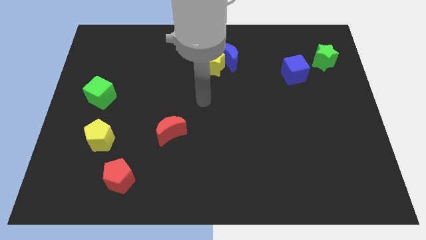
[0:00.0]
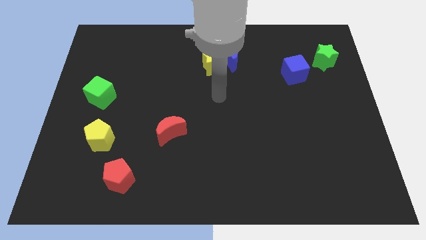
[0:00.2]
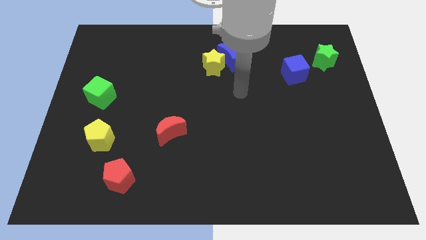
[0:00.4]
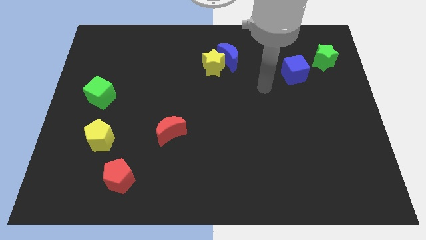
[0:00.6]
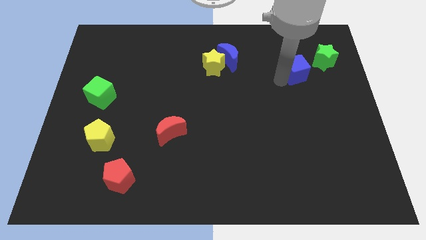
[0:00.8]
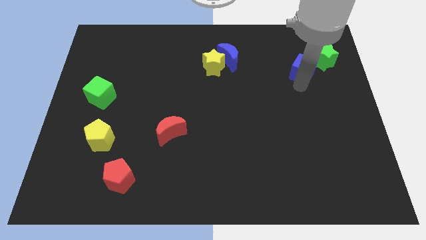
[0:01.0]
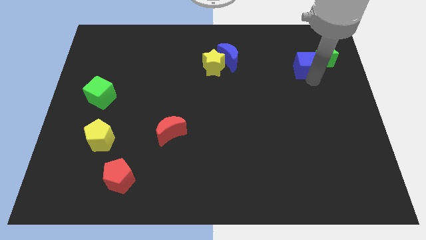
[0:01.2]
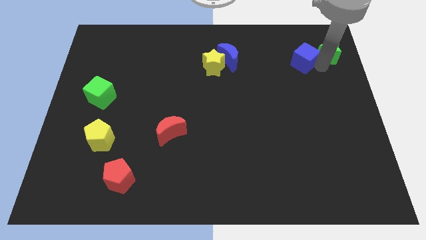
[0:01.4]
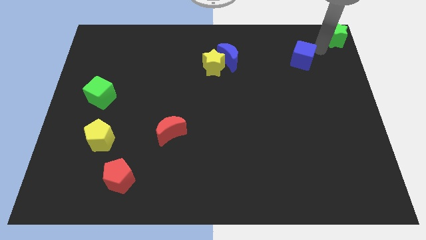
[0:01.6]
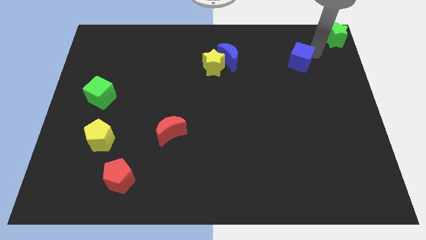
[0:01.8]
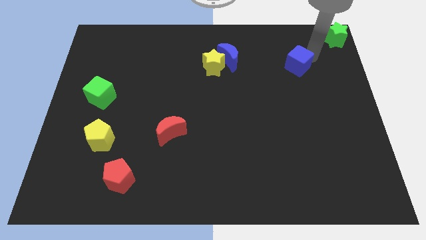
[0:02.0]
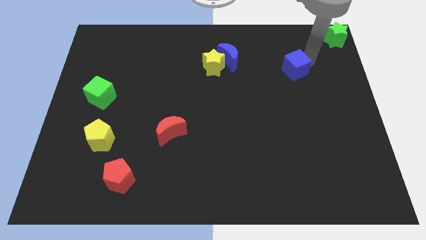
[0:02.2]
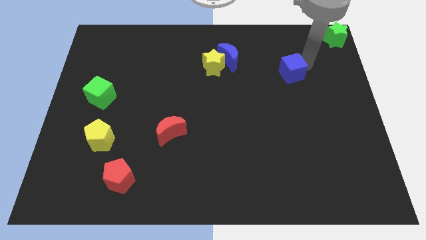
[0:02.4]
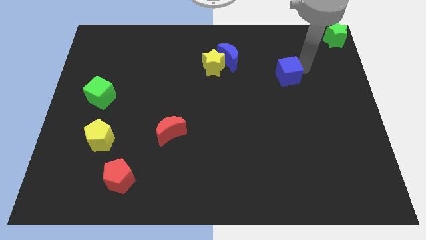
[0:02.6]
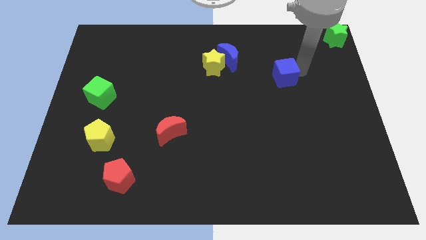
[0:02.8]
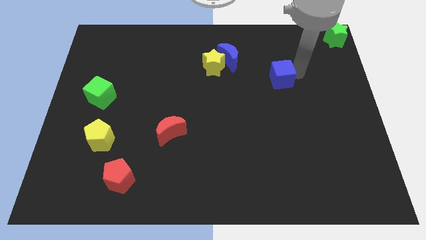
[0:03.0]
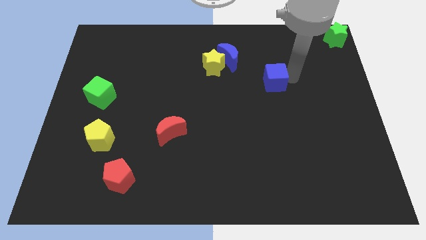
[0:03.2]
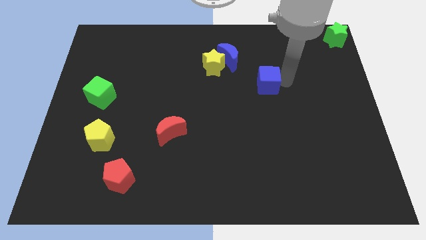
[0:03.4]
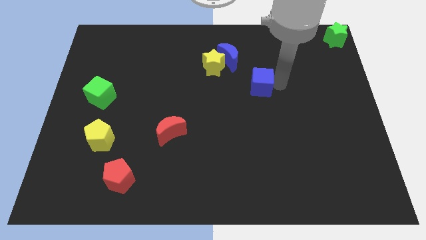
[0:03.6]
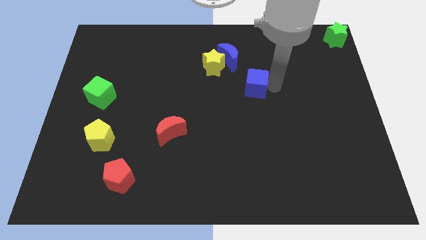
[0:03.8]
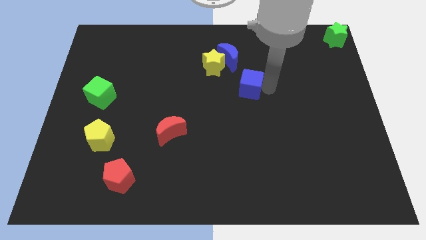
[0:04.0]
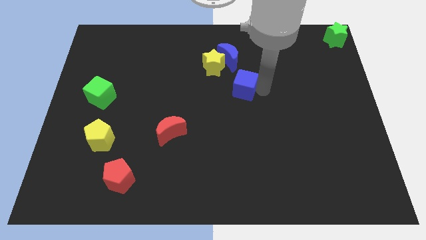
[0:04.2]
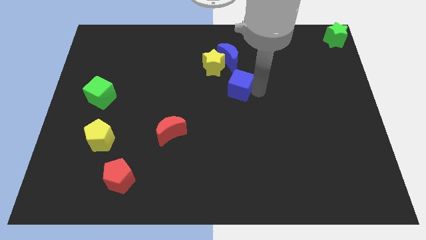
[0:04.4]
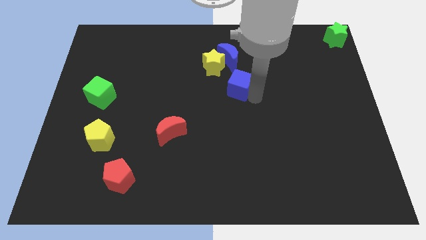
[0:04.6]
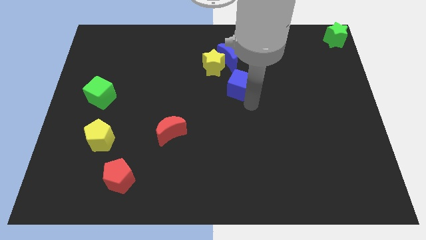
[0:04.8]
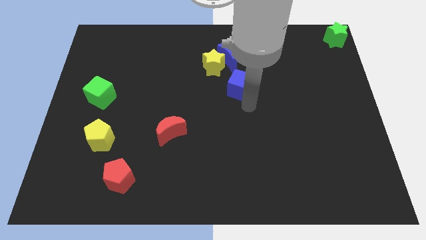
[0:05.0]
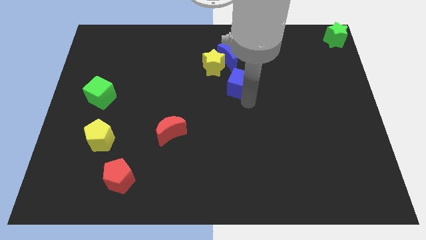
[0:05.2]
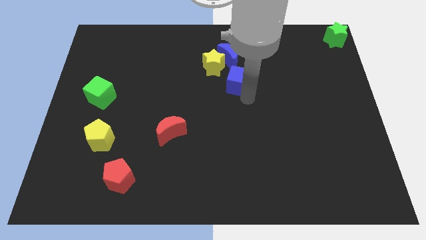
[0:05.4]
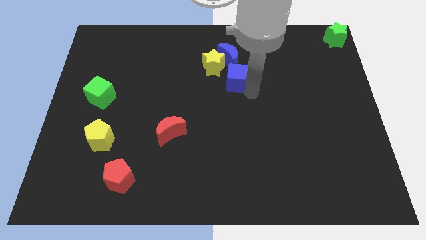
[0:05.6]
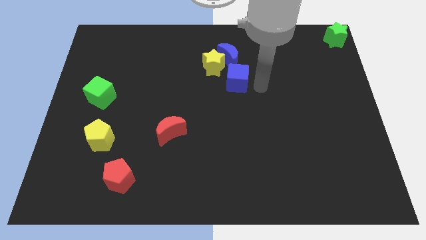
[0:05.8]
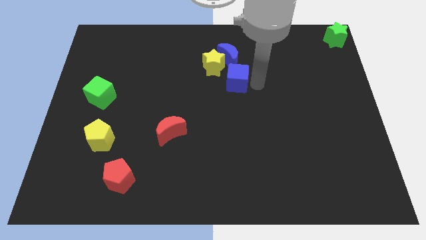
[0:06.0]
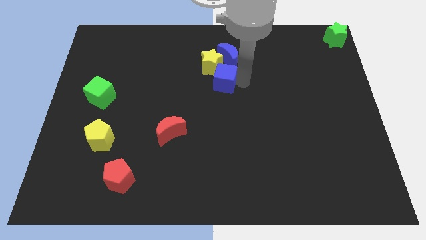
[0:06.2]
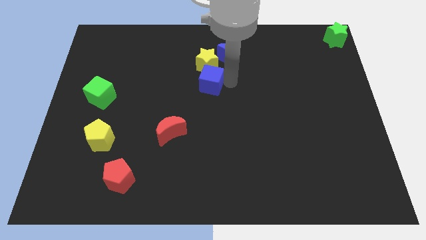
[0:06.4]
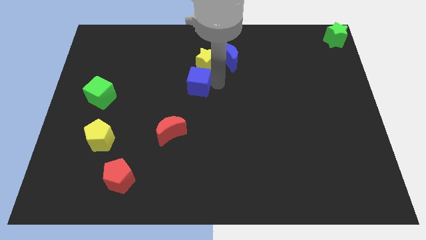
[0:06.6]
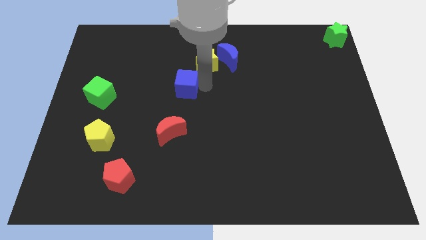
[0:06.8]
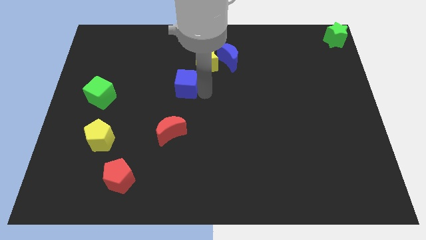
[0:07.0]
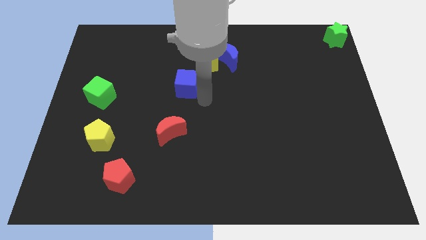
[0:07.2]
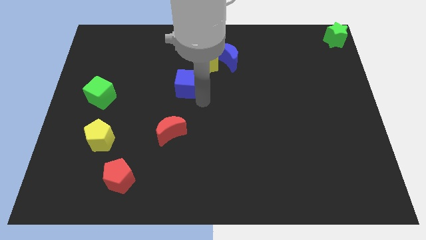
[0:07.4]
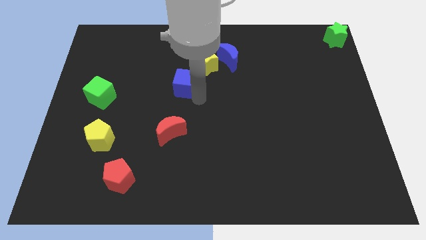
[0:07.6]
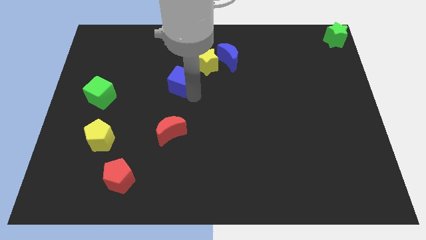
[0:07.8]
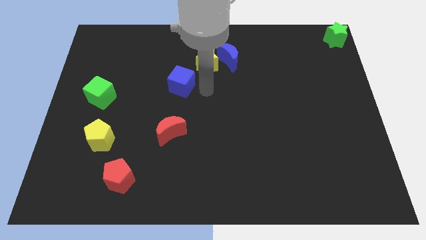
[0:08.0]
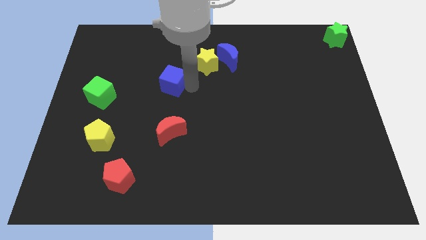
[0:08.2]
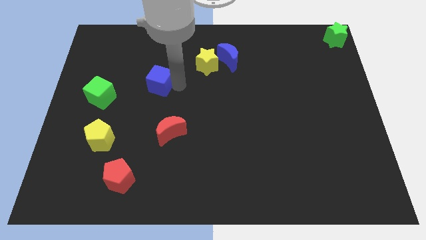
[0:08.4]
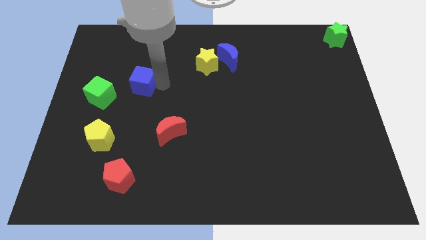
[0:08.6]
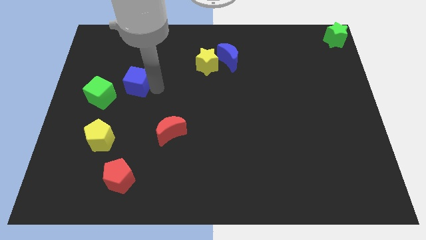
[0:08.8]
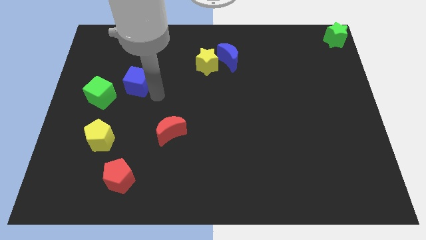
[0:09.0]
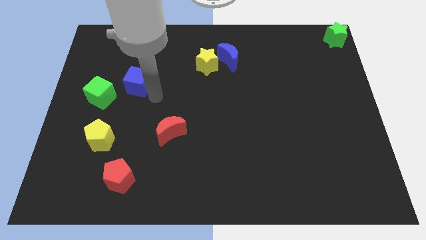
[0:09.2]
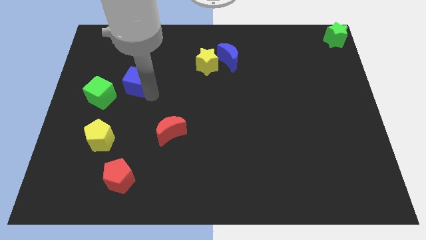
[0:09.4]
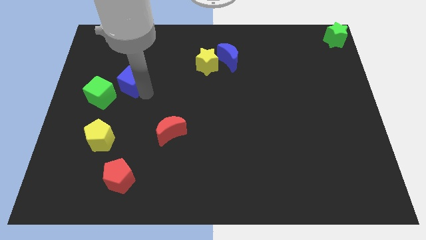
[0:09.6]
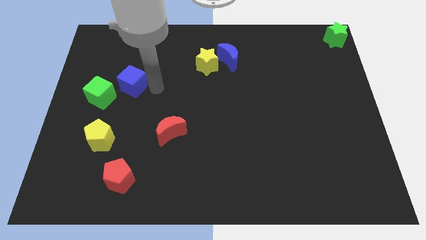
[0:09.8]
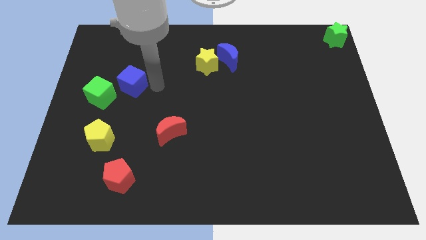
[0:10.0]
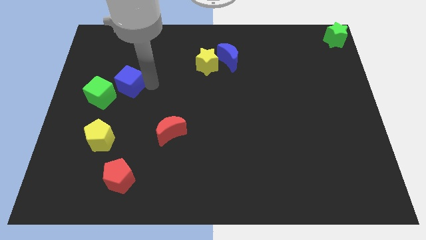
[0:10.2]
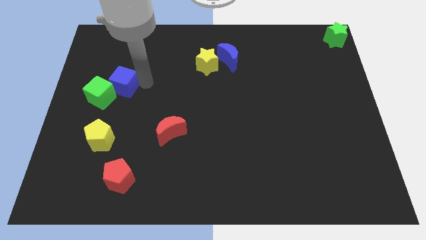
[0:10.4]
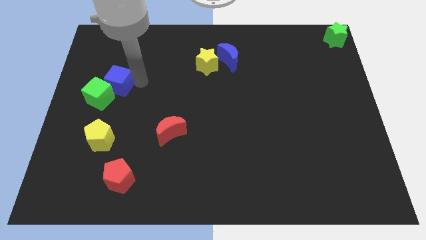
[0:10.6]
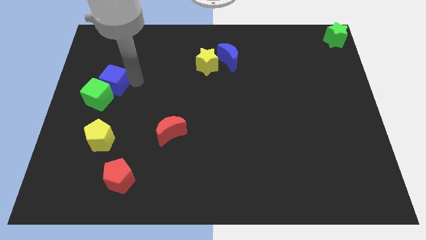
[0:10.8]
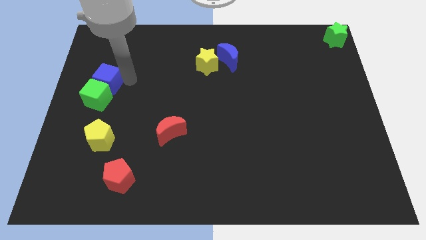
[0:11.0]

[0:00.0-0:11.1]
move the blue cube to the center left

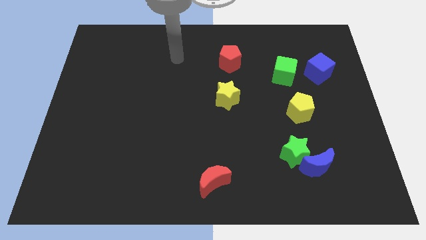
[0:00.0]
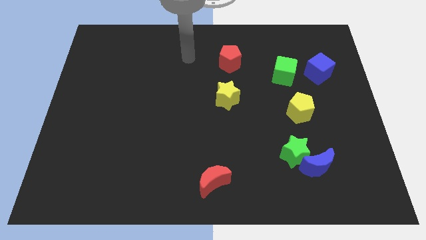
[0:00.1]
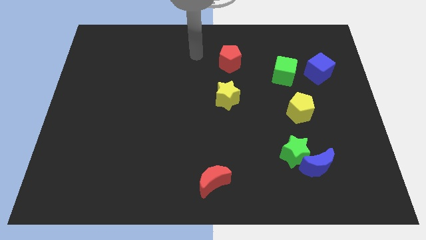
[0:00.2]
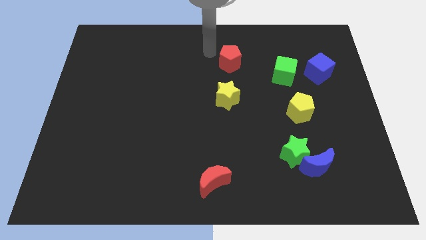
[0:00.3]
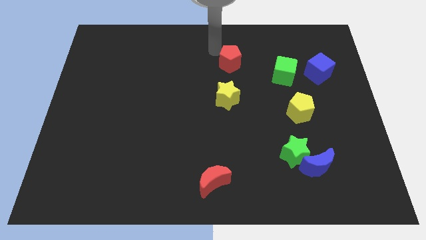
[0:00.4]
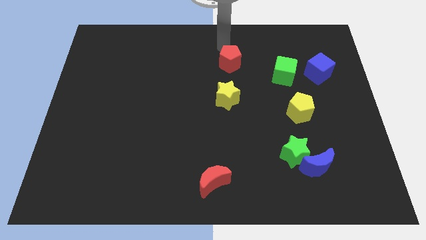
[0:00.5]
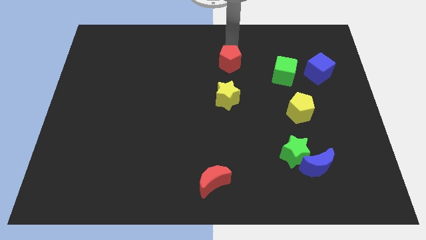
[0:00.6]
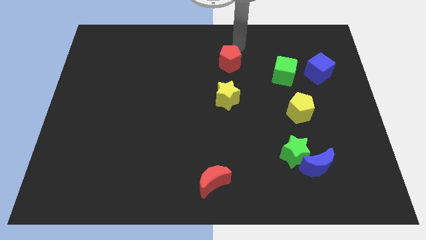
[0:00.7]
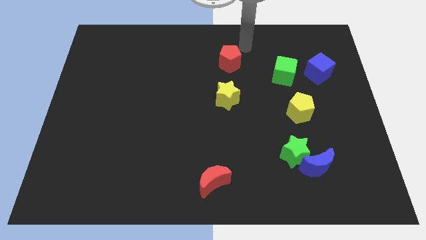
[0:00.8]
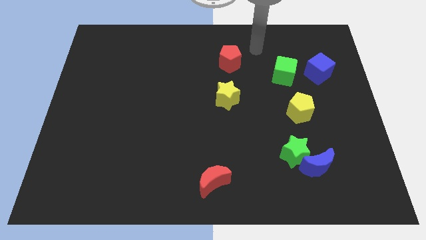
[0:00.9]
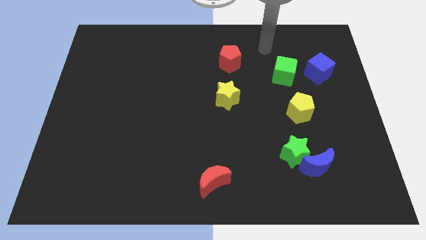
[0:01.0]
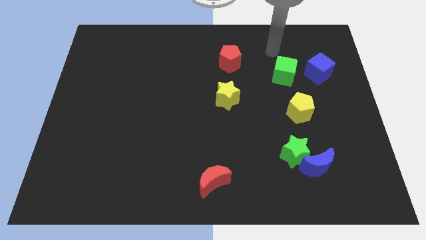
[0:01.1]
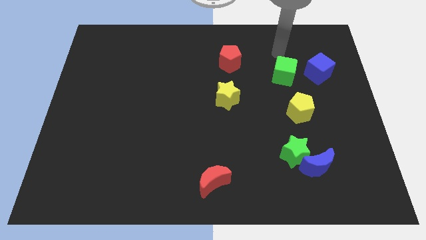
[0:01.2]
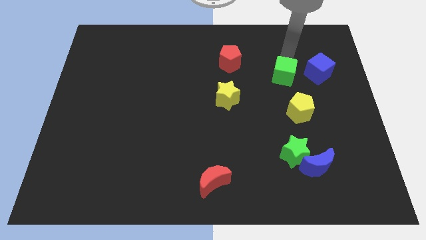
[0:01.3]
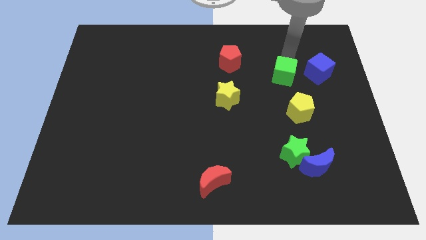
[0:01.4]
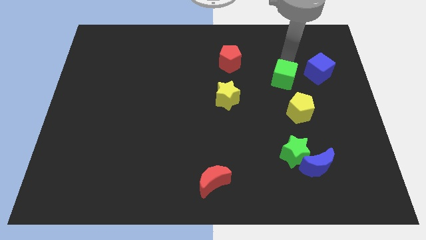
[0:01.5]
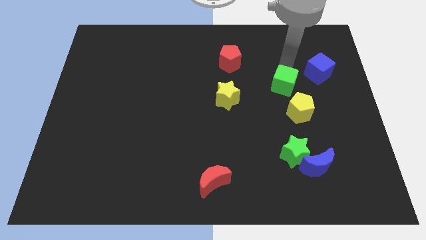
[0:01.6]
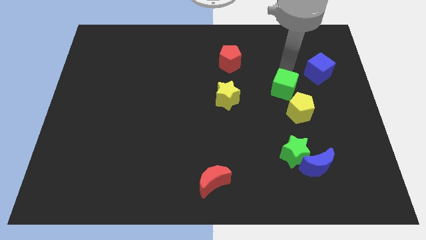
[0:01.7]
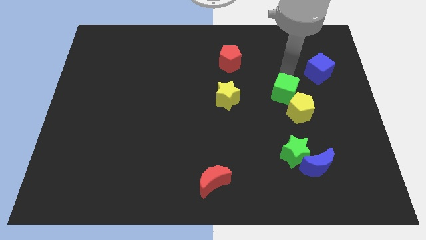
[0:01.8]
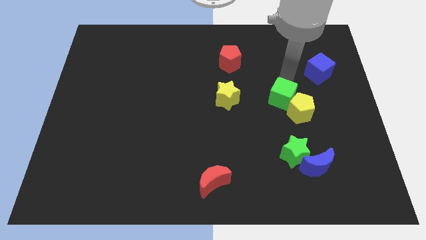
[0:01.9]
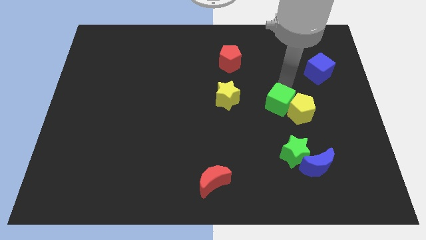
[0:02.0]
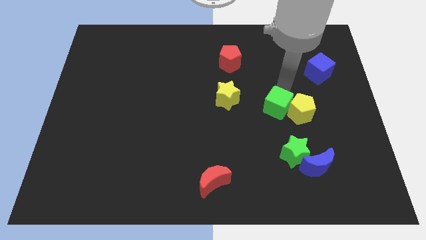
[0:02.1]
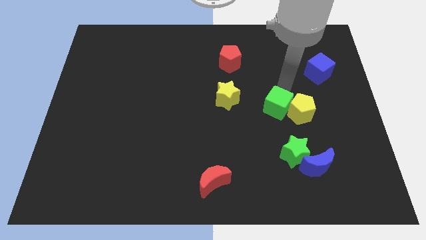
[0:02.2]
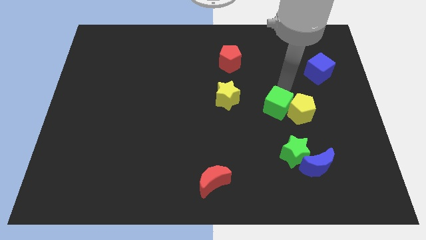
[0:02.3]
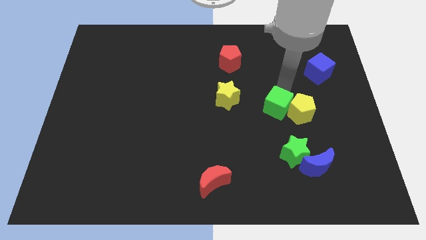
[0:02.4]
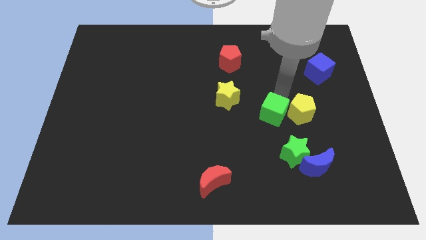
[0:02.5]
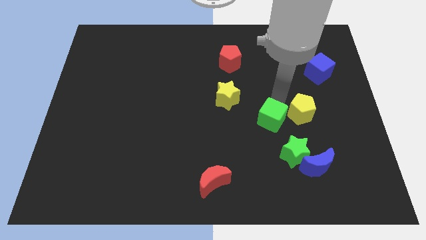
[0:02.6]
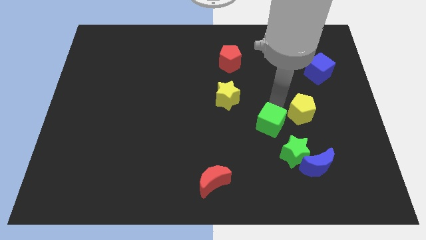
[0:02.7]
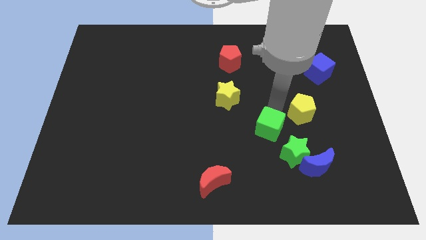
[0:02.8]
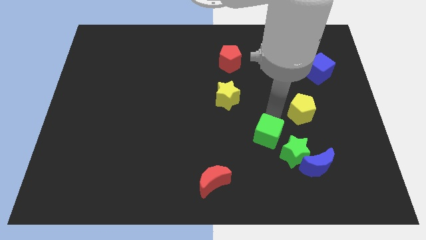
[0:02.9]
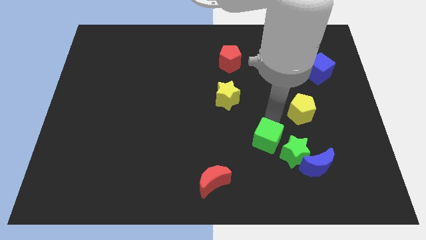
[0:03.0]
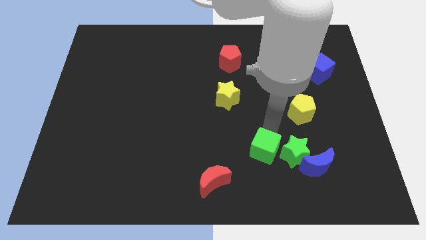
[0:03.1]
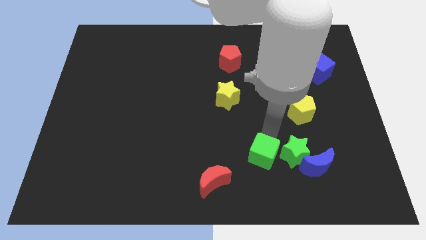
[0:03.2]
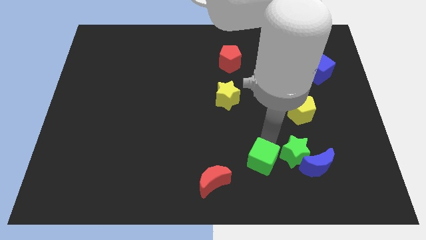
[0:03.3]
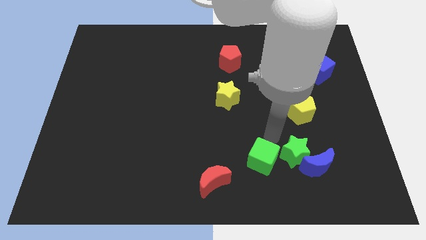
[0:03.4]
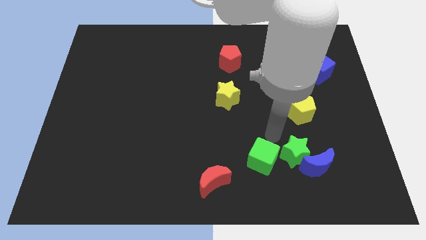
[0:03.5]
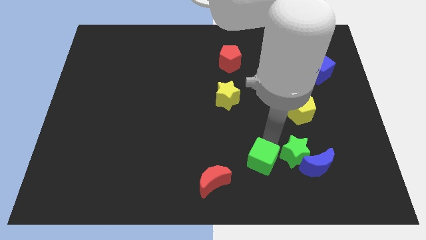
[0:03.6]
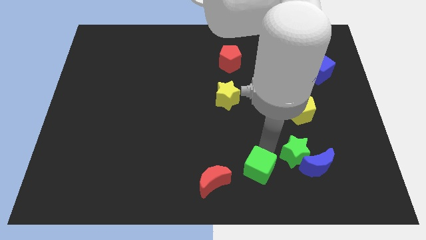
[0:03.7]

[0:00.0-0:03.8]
push the green cube to the bottom side
